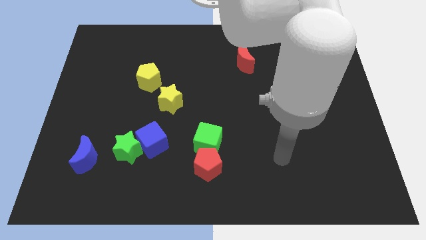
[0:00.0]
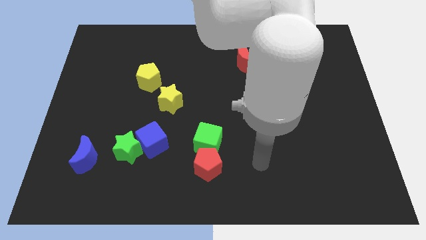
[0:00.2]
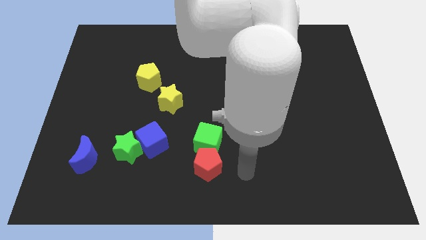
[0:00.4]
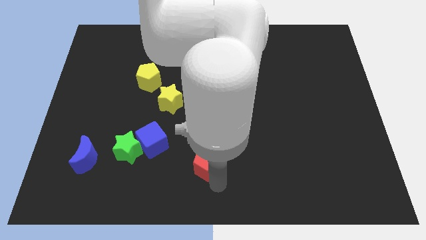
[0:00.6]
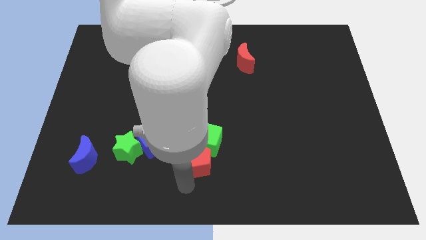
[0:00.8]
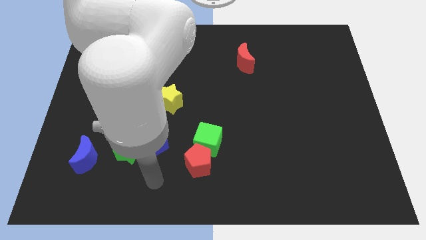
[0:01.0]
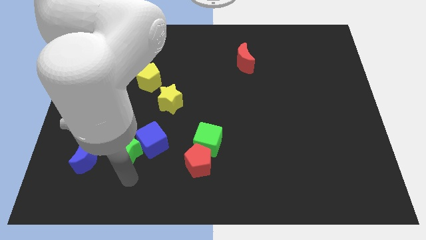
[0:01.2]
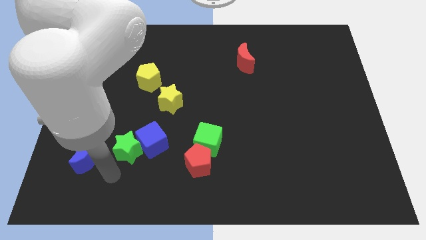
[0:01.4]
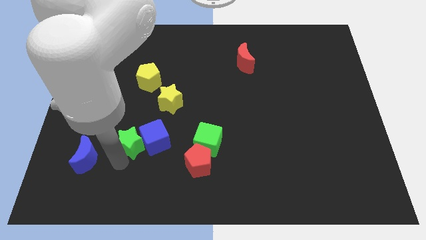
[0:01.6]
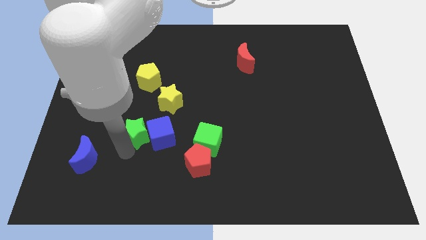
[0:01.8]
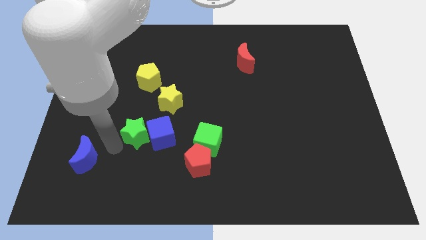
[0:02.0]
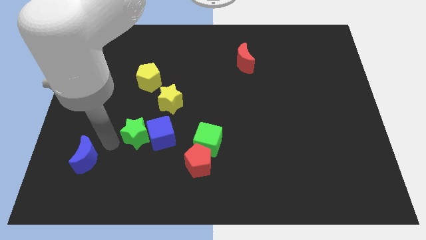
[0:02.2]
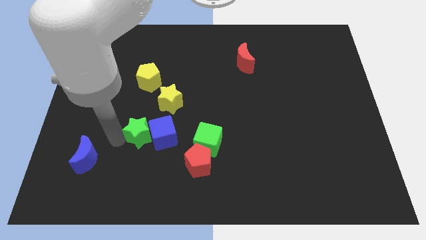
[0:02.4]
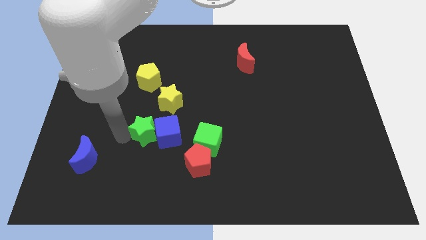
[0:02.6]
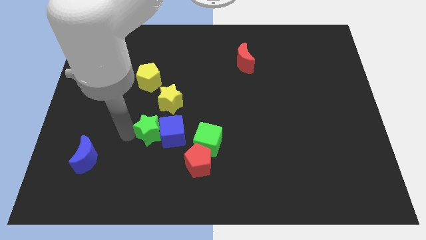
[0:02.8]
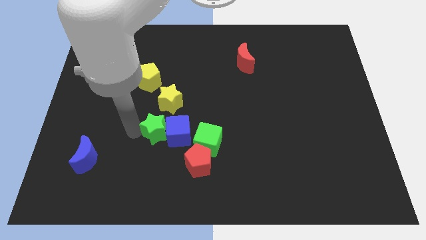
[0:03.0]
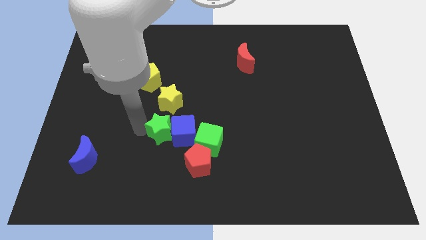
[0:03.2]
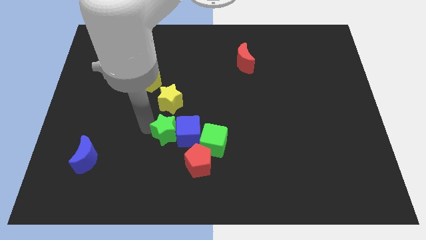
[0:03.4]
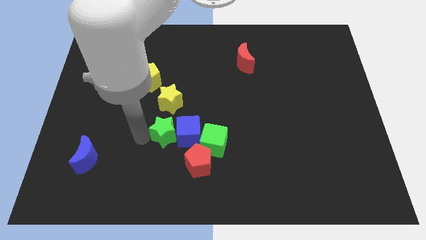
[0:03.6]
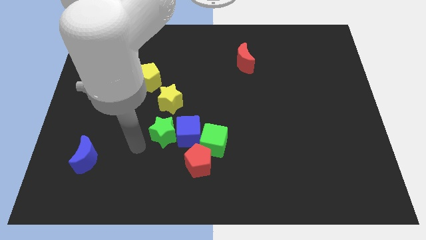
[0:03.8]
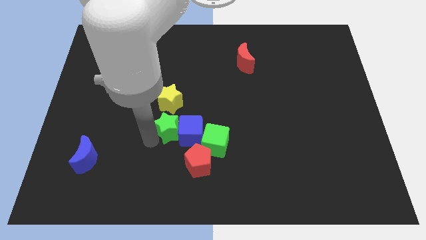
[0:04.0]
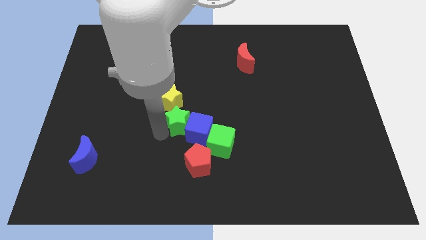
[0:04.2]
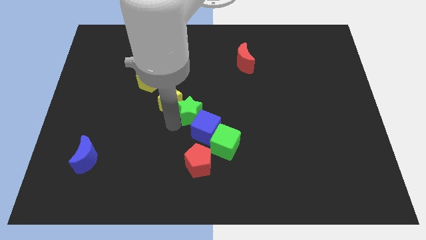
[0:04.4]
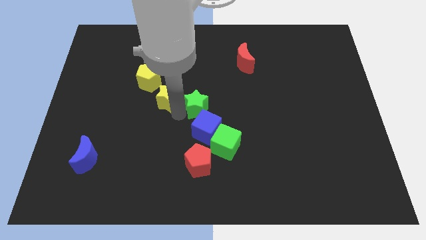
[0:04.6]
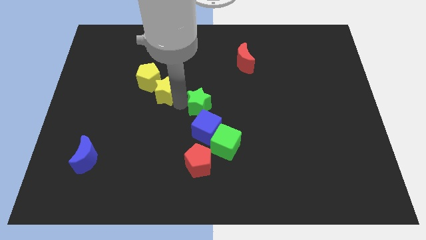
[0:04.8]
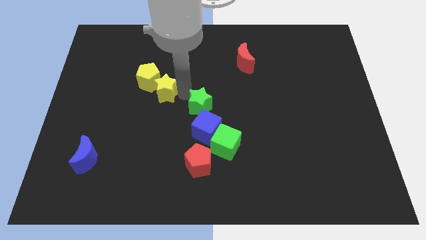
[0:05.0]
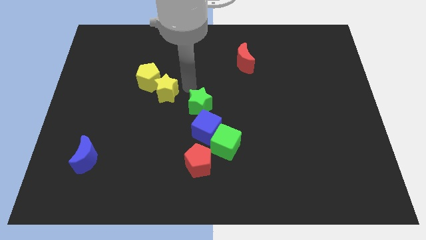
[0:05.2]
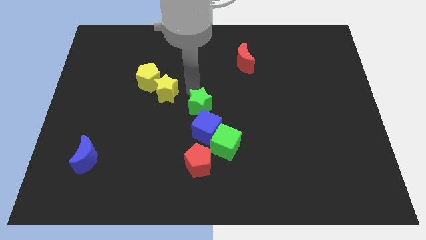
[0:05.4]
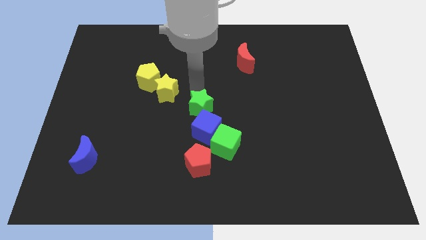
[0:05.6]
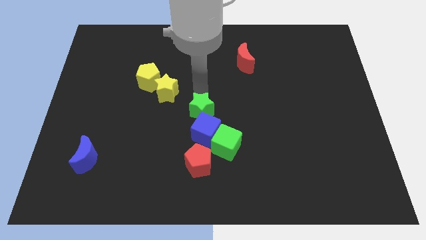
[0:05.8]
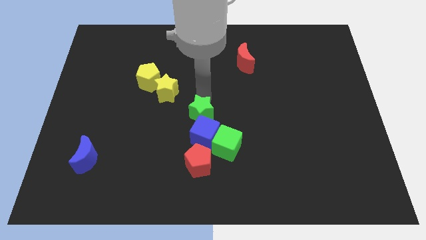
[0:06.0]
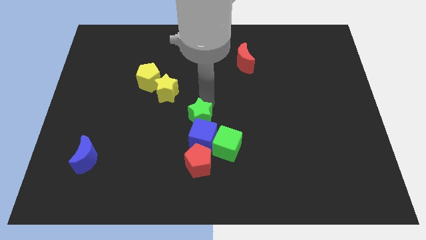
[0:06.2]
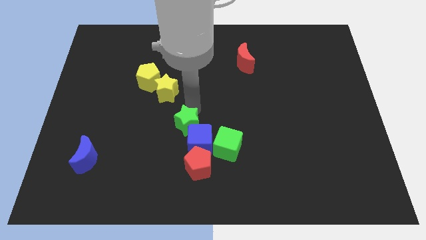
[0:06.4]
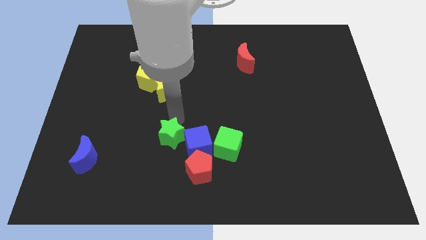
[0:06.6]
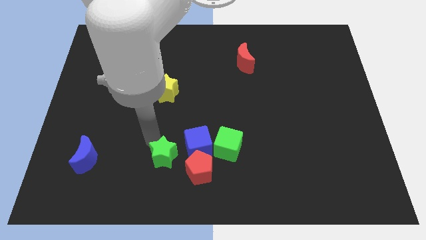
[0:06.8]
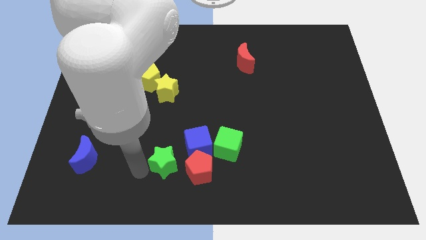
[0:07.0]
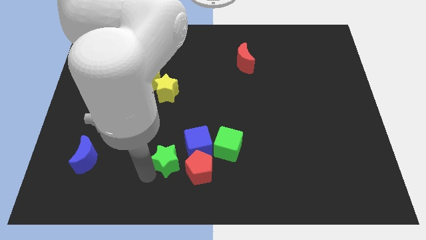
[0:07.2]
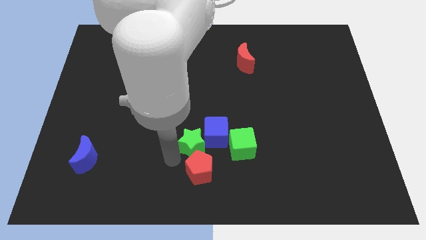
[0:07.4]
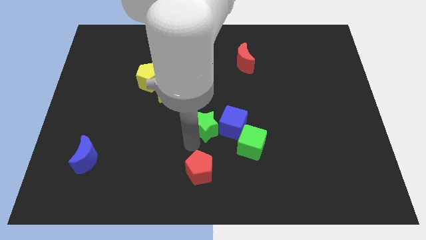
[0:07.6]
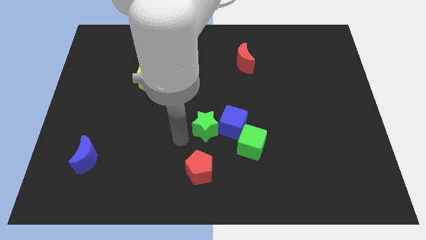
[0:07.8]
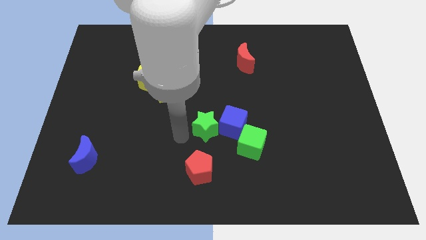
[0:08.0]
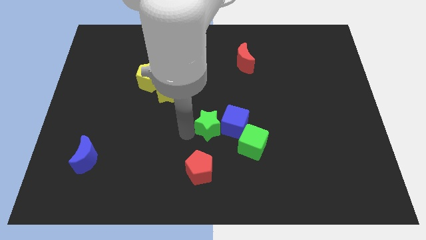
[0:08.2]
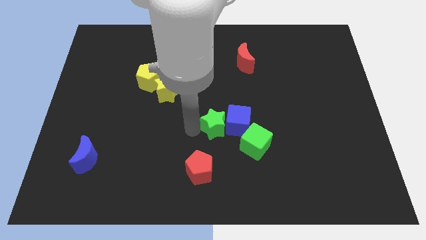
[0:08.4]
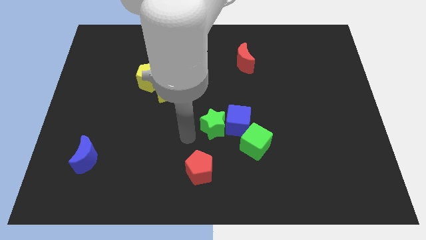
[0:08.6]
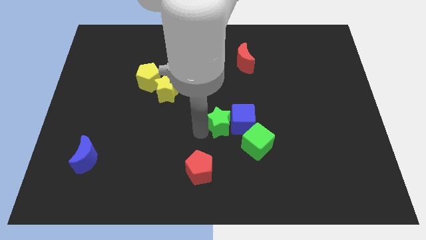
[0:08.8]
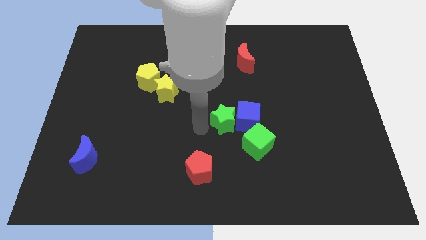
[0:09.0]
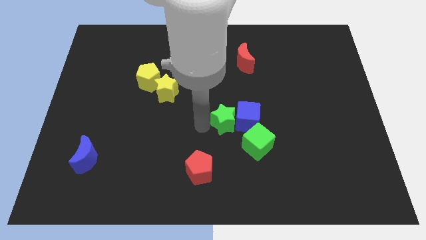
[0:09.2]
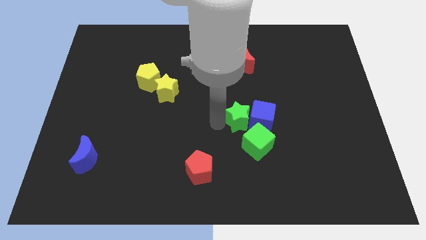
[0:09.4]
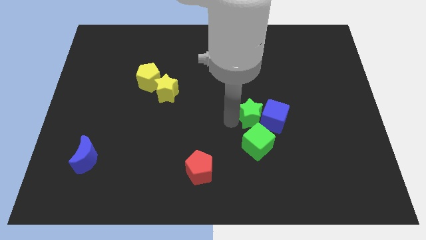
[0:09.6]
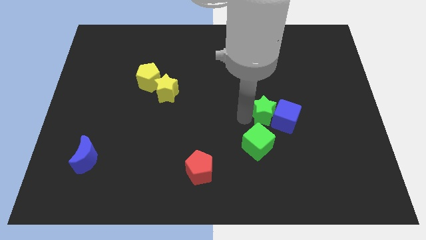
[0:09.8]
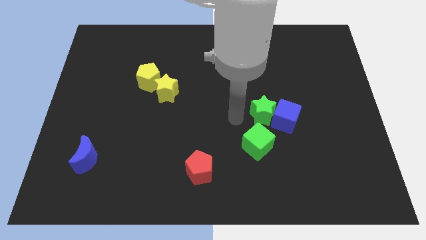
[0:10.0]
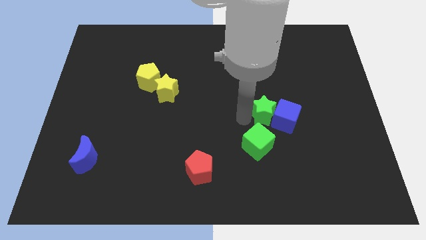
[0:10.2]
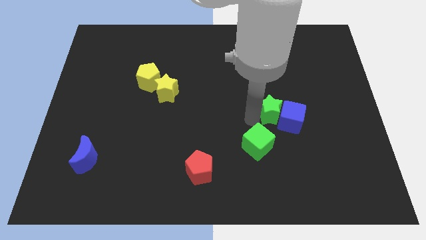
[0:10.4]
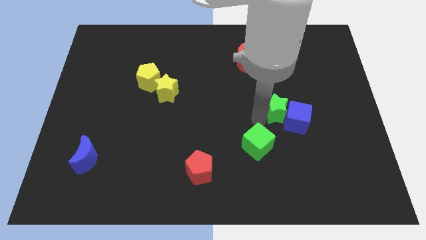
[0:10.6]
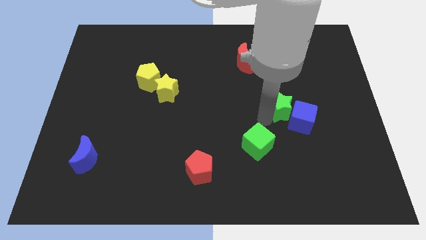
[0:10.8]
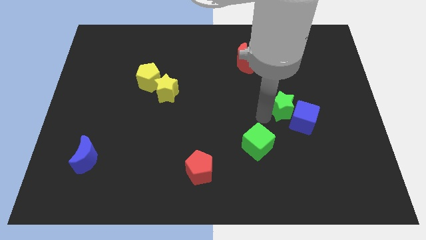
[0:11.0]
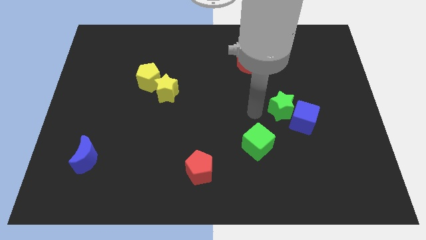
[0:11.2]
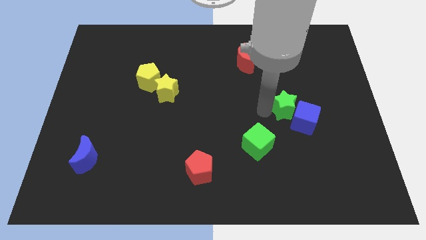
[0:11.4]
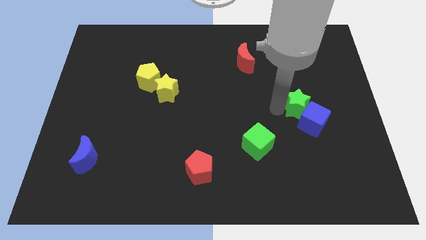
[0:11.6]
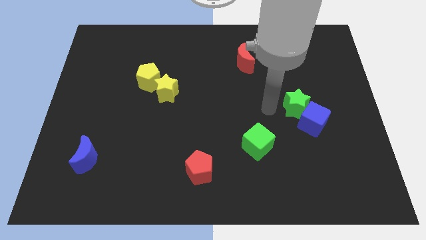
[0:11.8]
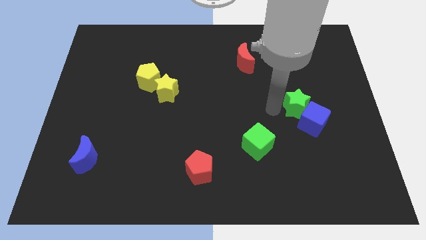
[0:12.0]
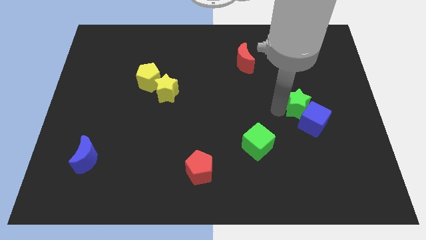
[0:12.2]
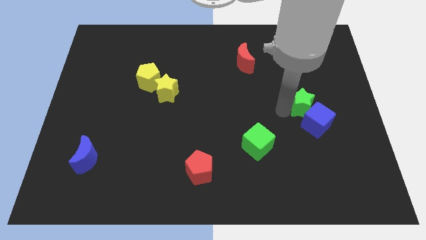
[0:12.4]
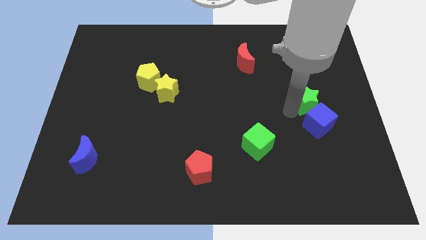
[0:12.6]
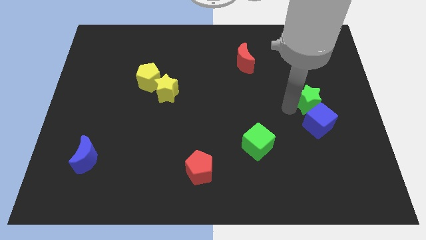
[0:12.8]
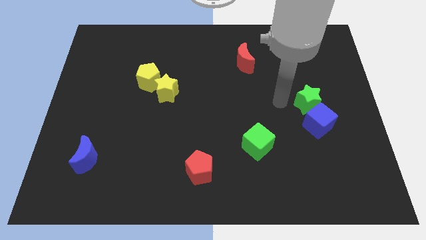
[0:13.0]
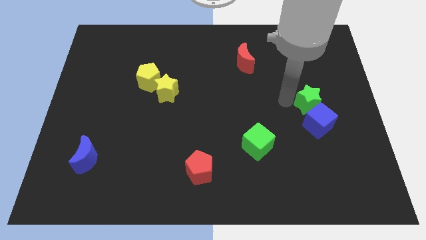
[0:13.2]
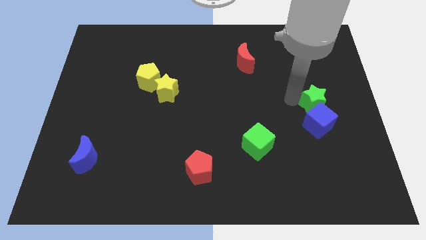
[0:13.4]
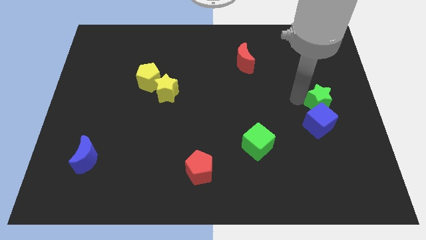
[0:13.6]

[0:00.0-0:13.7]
put the green star to the right side
